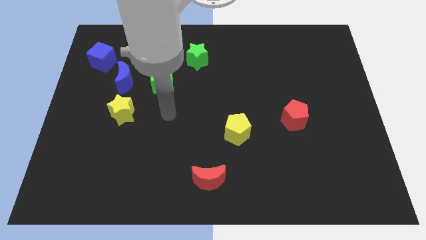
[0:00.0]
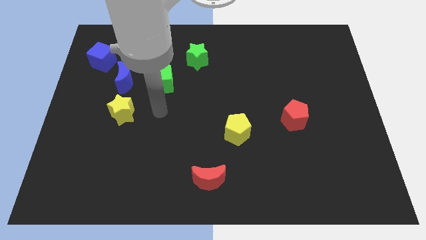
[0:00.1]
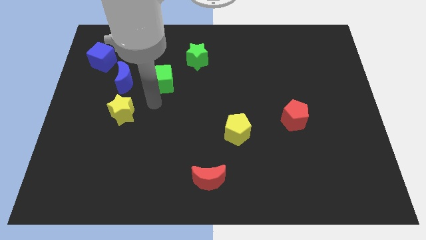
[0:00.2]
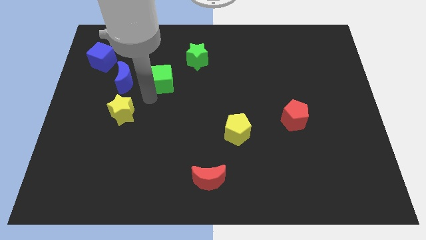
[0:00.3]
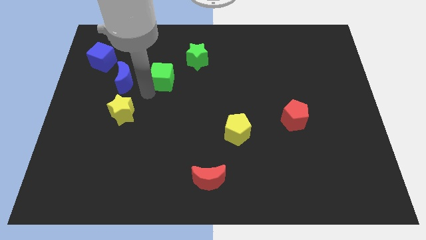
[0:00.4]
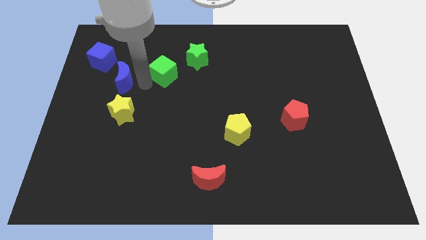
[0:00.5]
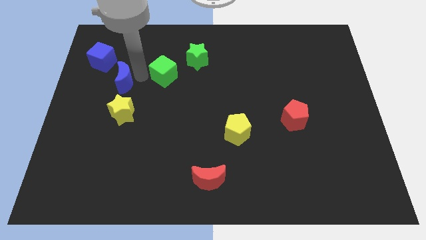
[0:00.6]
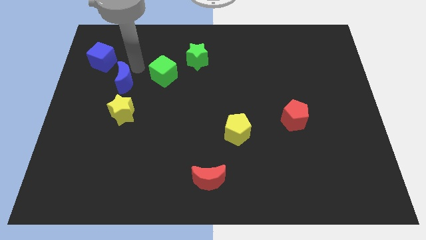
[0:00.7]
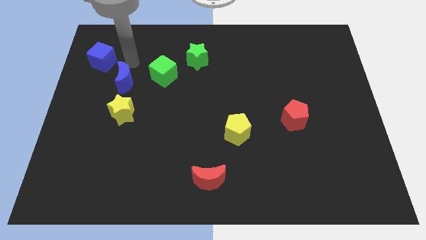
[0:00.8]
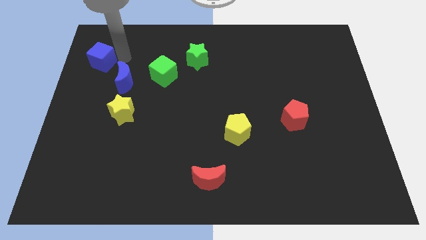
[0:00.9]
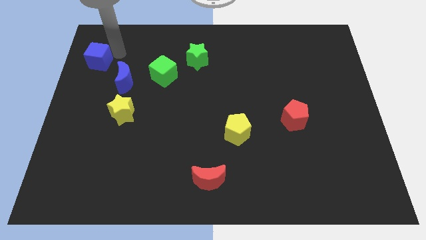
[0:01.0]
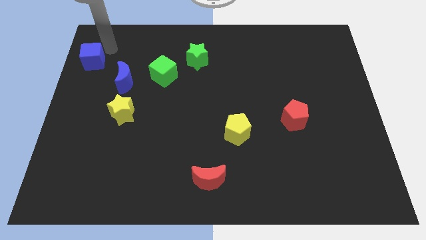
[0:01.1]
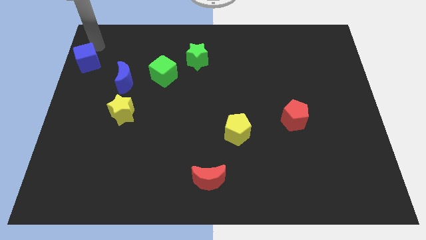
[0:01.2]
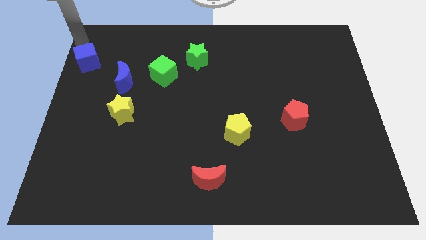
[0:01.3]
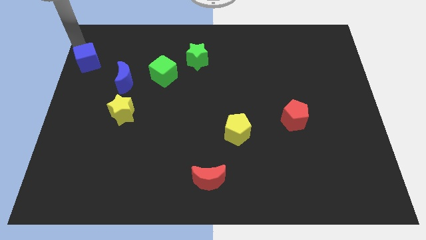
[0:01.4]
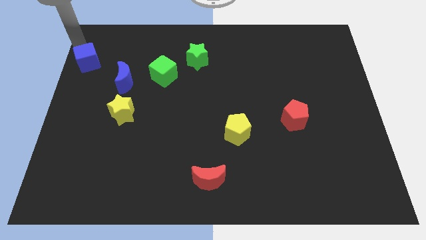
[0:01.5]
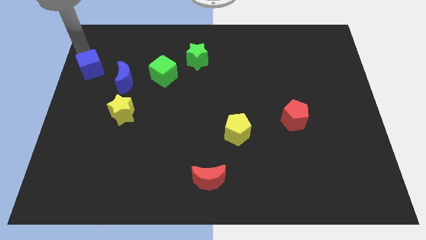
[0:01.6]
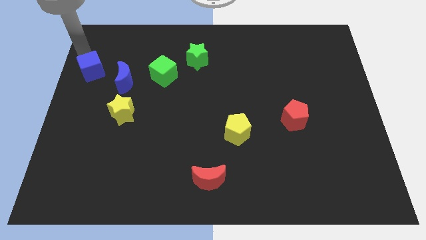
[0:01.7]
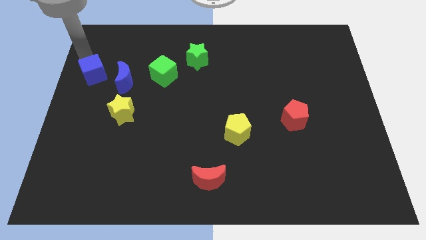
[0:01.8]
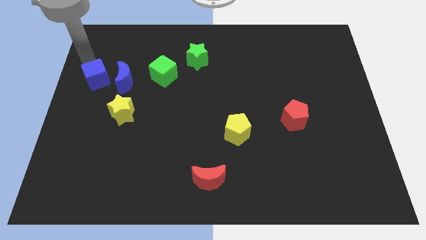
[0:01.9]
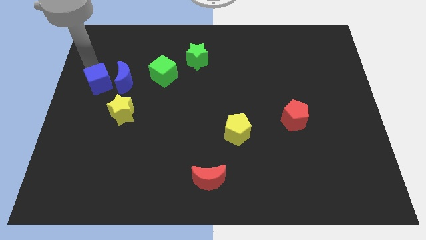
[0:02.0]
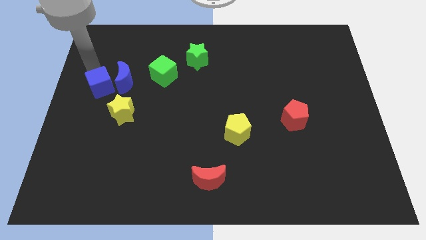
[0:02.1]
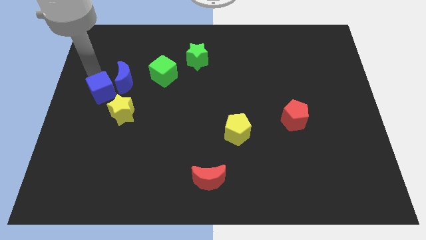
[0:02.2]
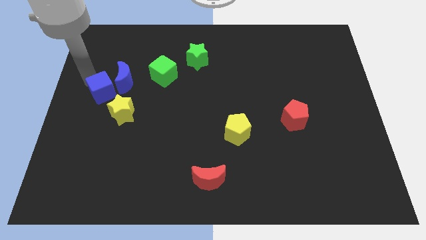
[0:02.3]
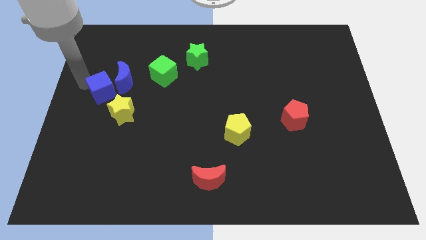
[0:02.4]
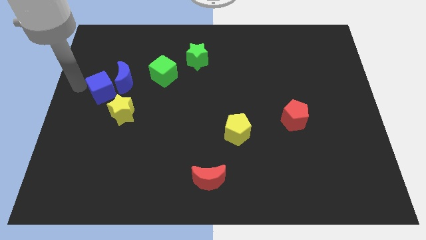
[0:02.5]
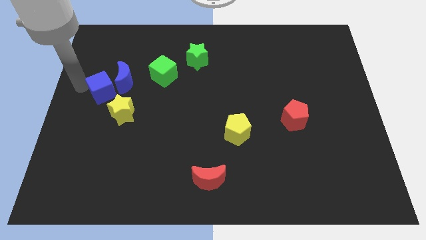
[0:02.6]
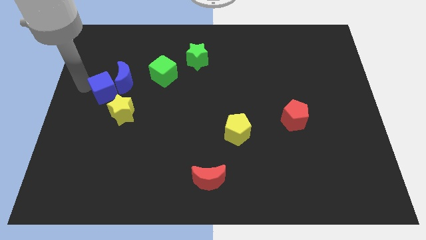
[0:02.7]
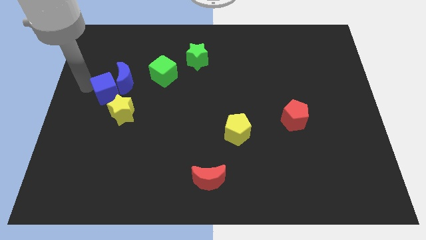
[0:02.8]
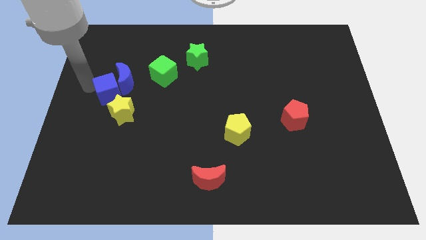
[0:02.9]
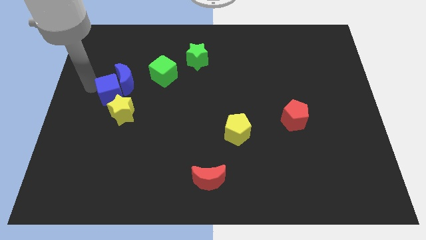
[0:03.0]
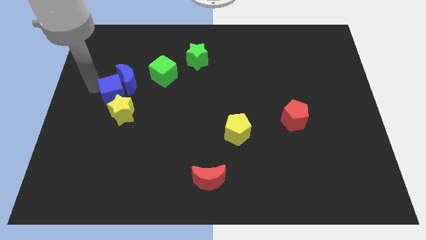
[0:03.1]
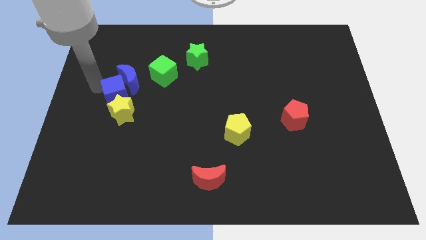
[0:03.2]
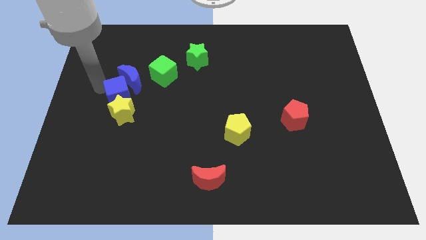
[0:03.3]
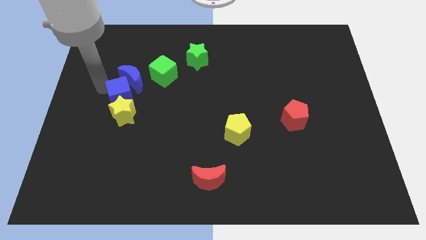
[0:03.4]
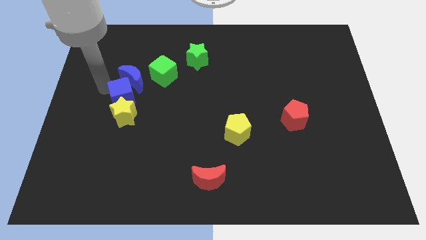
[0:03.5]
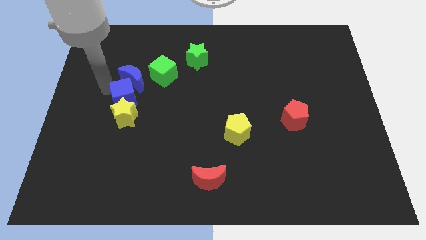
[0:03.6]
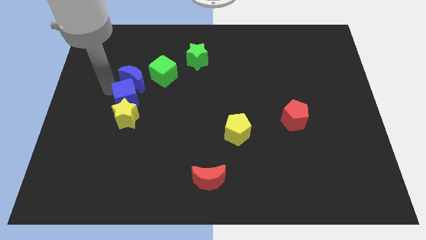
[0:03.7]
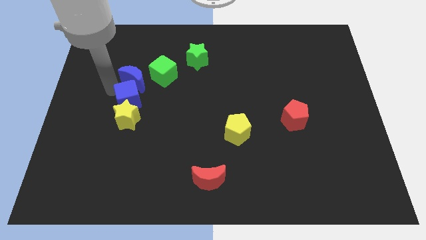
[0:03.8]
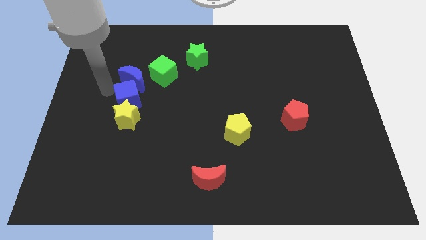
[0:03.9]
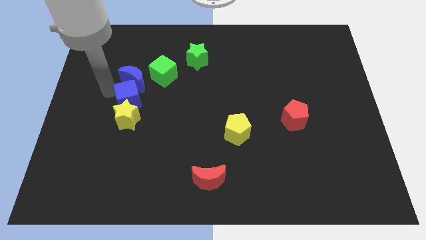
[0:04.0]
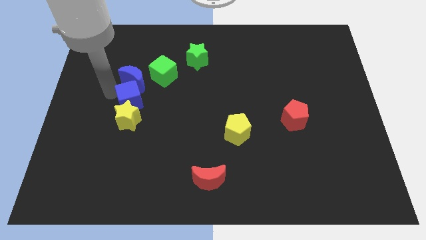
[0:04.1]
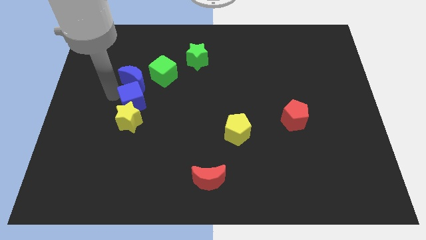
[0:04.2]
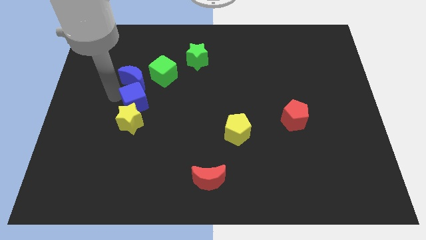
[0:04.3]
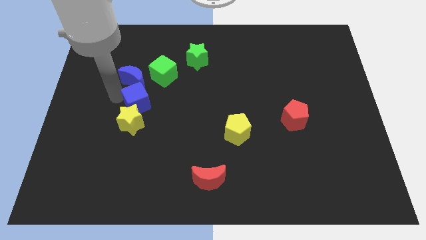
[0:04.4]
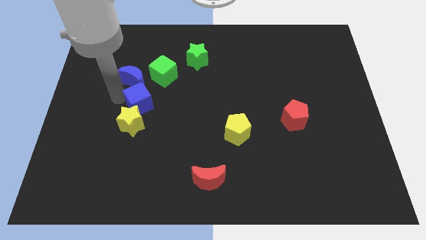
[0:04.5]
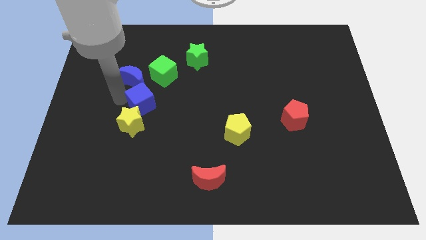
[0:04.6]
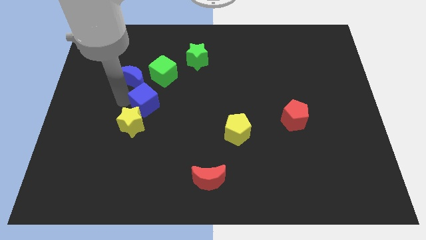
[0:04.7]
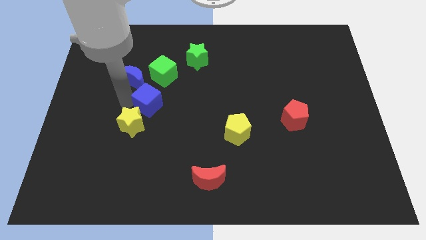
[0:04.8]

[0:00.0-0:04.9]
push the blue cube diagonally down and right

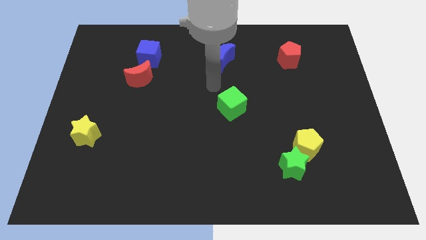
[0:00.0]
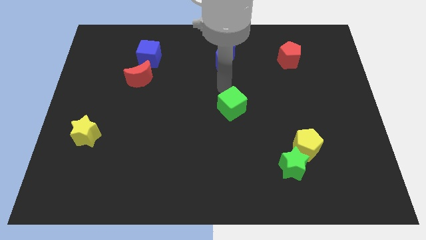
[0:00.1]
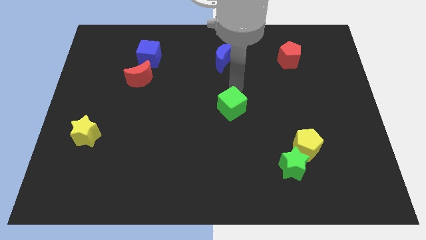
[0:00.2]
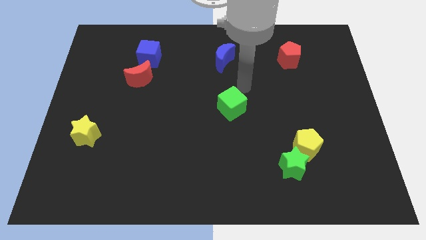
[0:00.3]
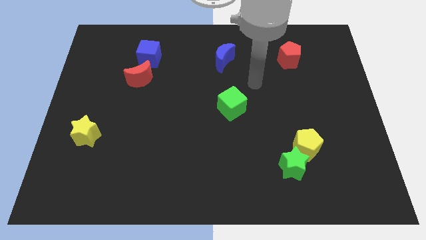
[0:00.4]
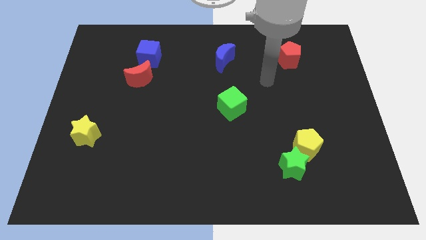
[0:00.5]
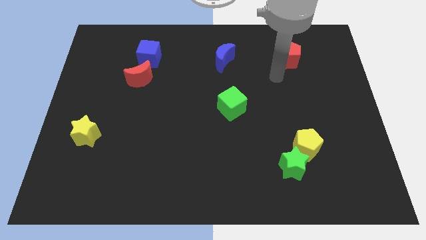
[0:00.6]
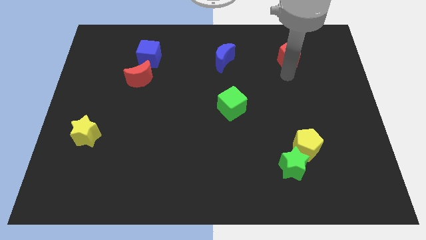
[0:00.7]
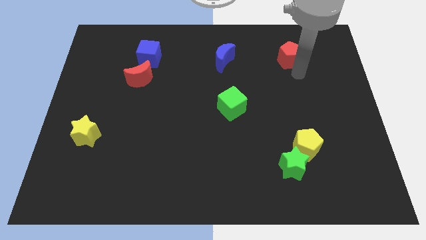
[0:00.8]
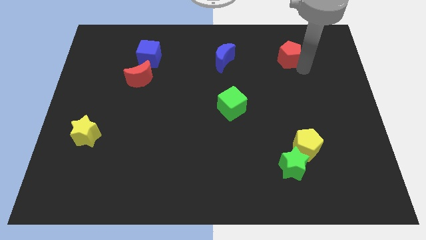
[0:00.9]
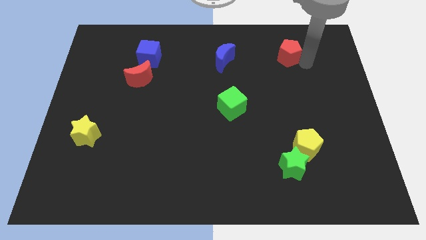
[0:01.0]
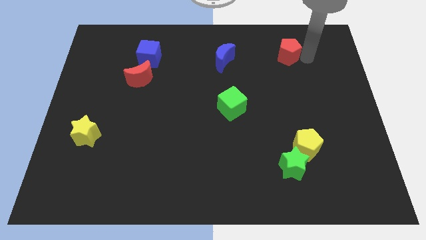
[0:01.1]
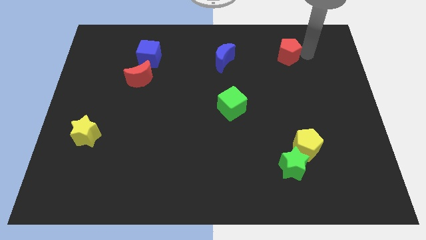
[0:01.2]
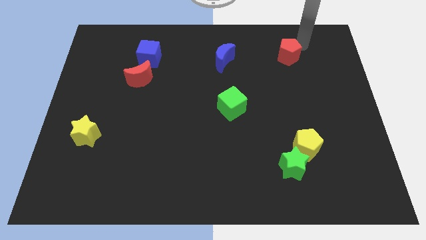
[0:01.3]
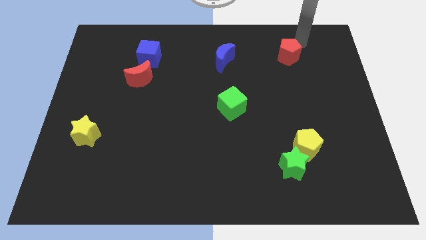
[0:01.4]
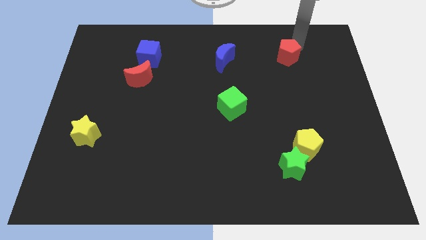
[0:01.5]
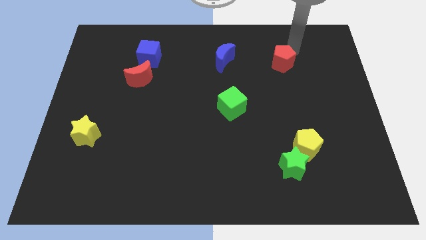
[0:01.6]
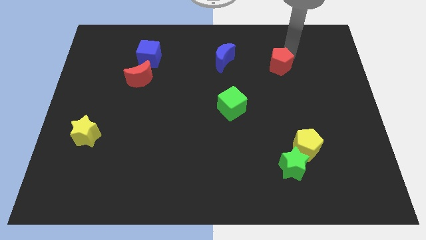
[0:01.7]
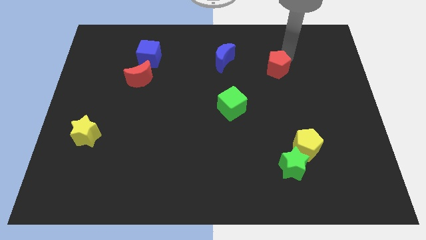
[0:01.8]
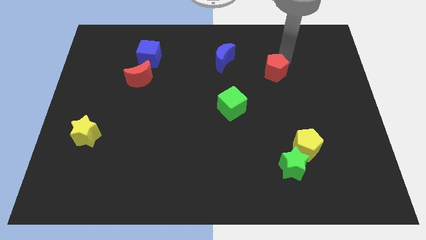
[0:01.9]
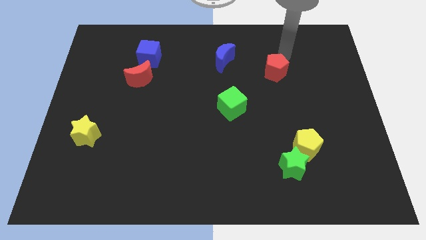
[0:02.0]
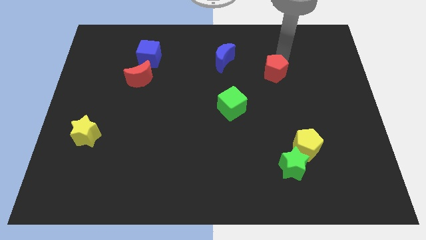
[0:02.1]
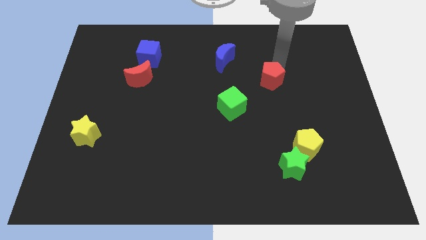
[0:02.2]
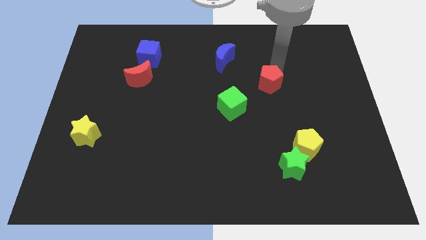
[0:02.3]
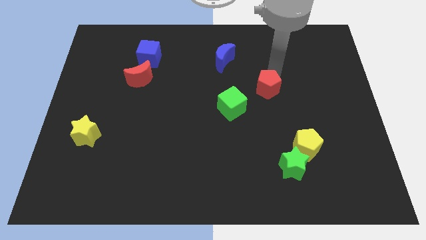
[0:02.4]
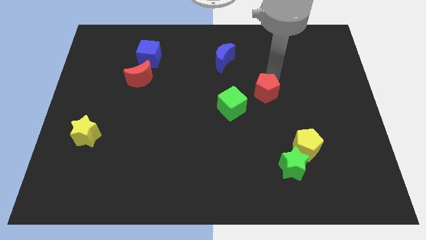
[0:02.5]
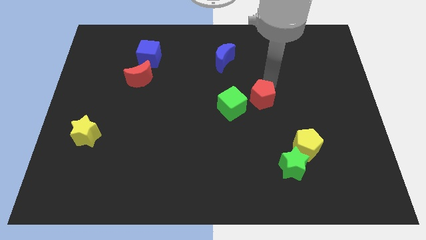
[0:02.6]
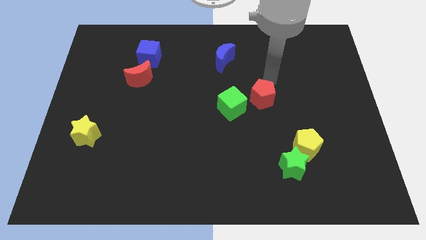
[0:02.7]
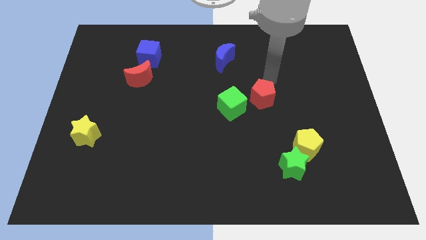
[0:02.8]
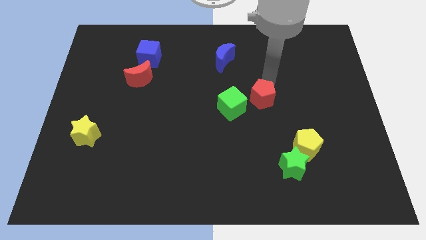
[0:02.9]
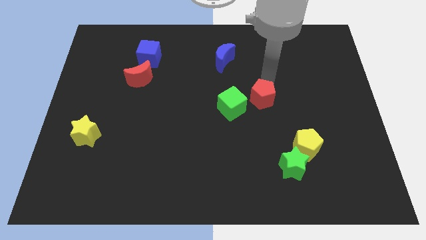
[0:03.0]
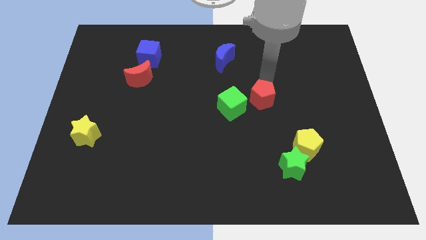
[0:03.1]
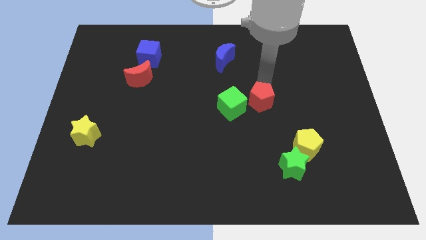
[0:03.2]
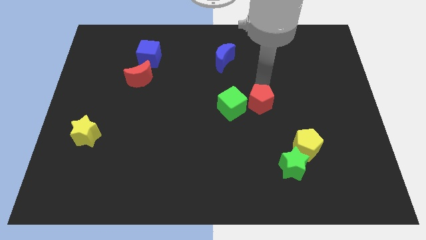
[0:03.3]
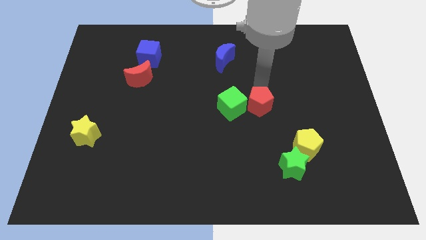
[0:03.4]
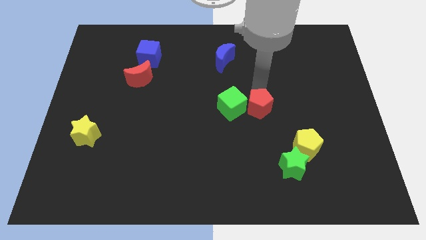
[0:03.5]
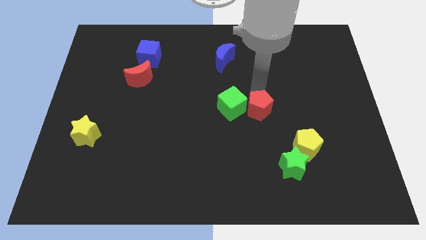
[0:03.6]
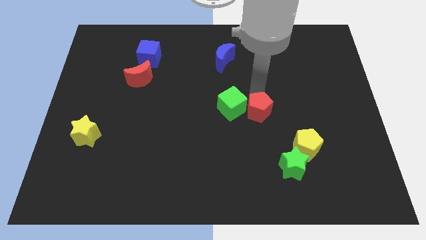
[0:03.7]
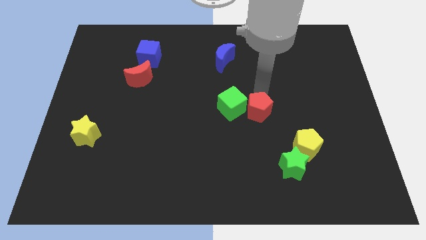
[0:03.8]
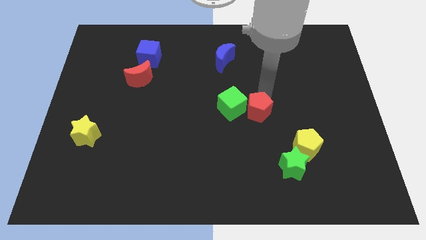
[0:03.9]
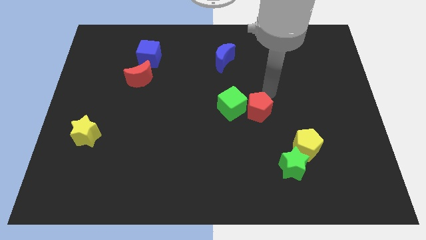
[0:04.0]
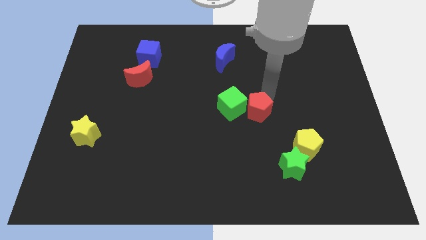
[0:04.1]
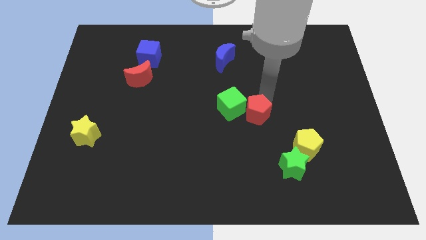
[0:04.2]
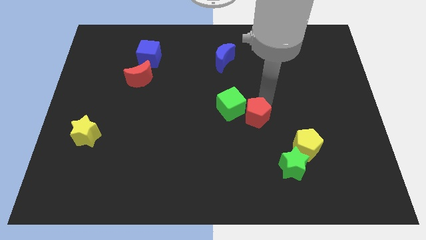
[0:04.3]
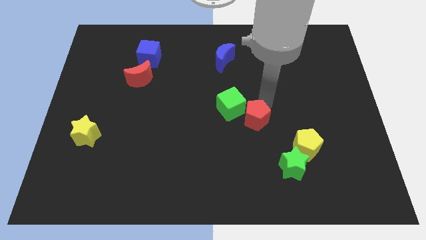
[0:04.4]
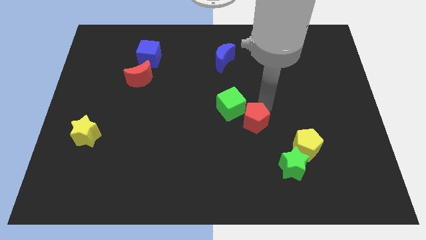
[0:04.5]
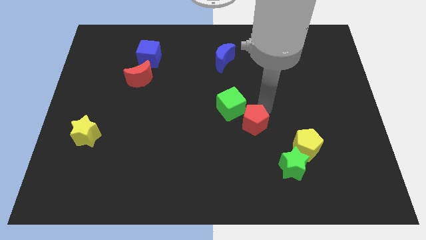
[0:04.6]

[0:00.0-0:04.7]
slide the red pentagon down and left diagonally
